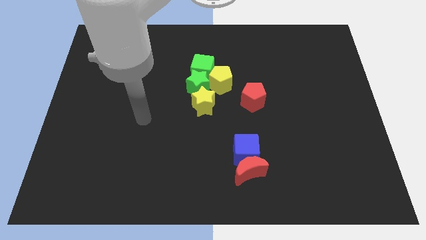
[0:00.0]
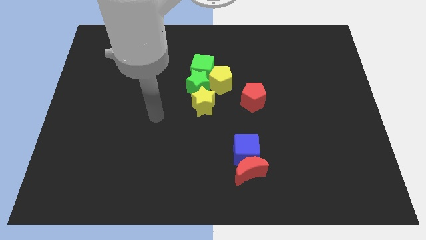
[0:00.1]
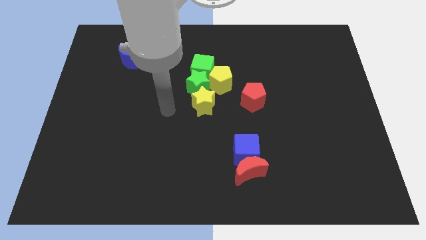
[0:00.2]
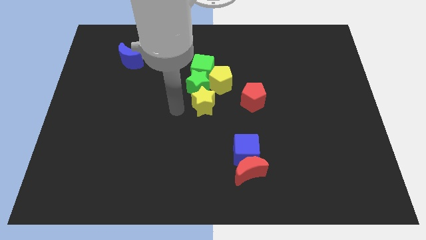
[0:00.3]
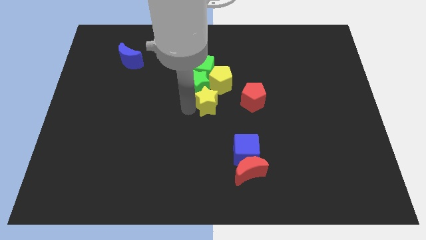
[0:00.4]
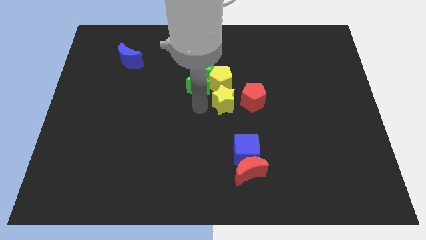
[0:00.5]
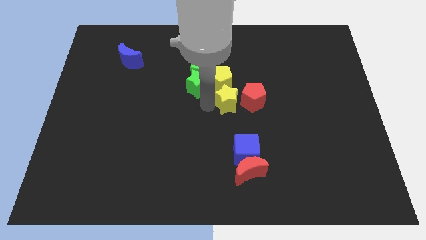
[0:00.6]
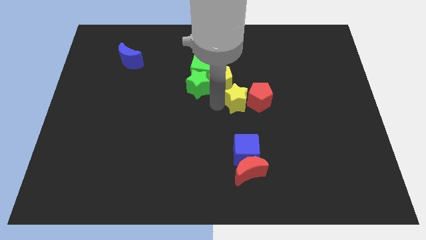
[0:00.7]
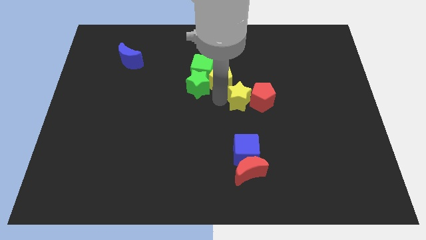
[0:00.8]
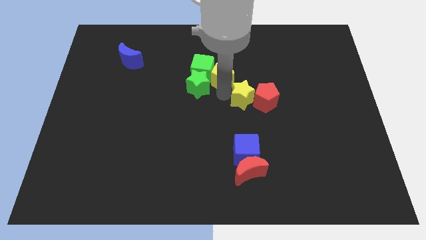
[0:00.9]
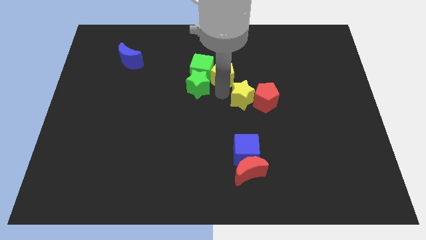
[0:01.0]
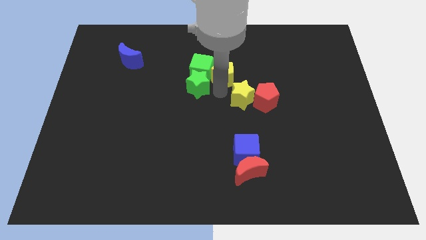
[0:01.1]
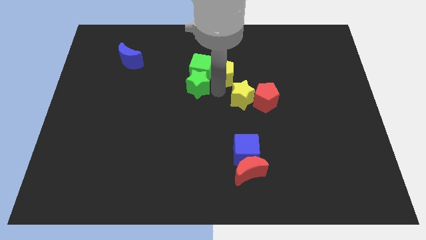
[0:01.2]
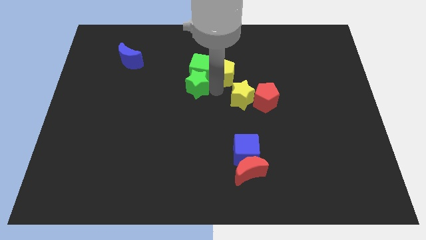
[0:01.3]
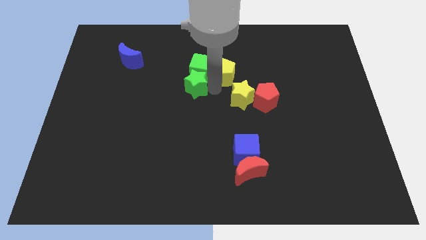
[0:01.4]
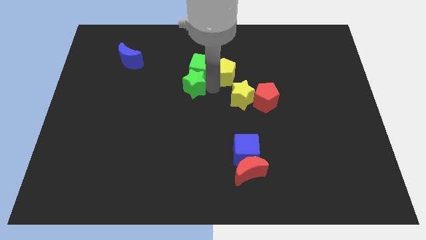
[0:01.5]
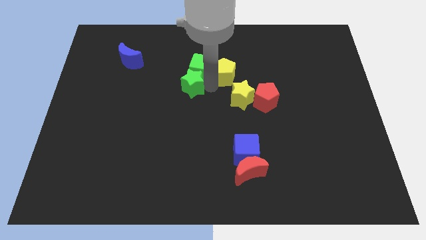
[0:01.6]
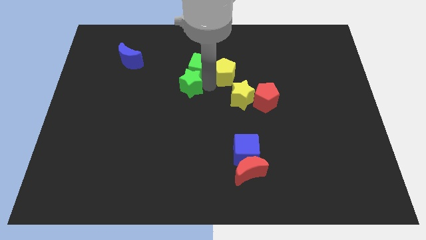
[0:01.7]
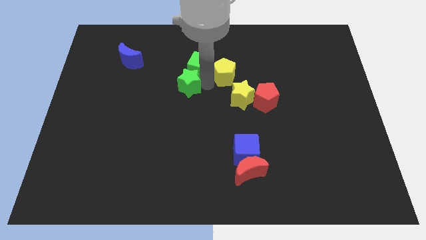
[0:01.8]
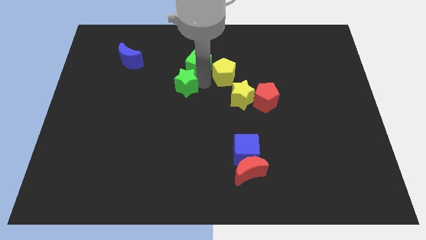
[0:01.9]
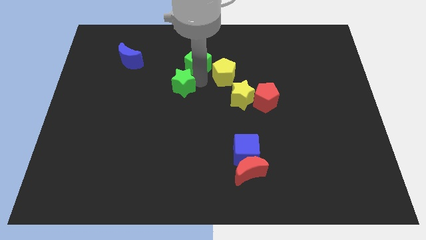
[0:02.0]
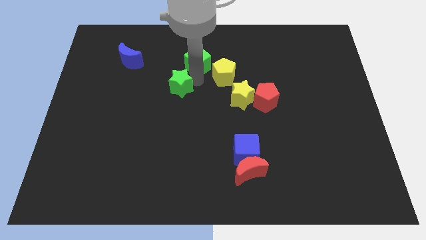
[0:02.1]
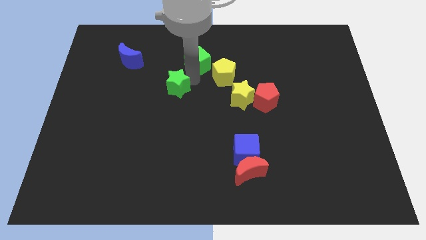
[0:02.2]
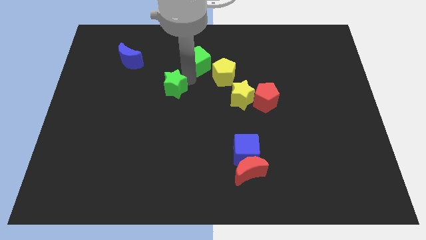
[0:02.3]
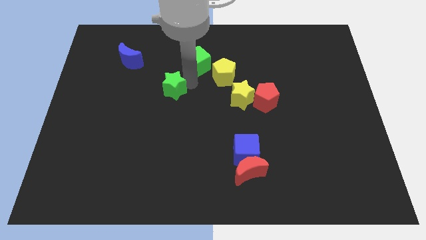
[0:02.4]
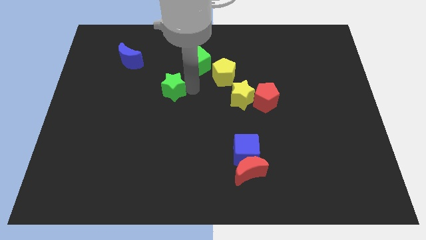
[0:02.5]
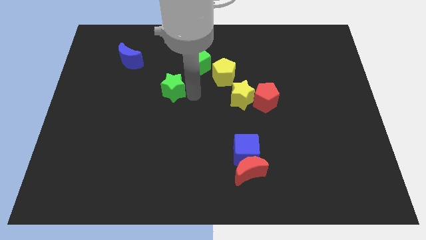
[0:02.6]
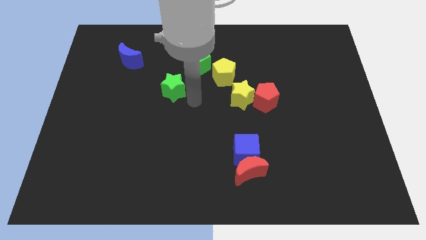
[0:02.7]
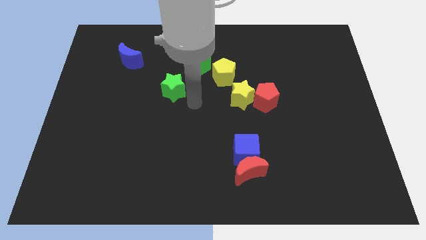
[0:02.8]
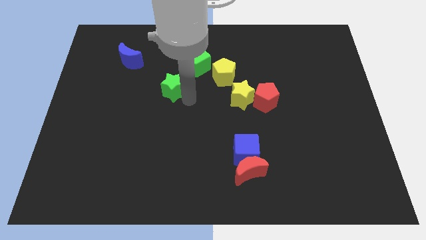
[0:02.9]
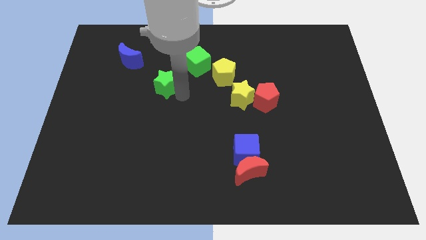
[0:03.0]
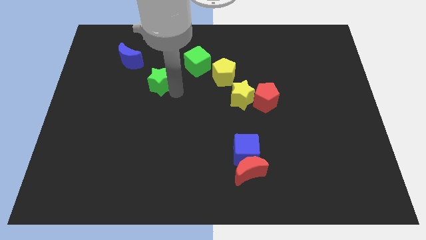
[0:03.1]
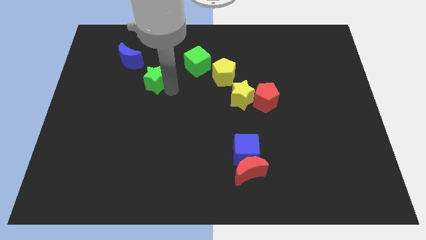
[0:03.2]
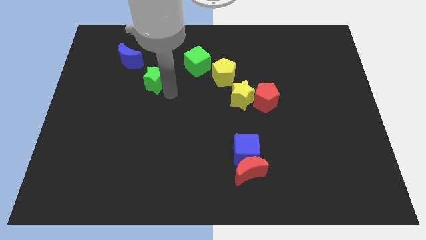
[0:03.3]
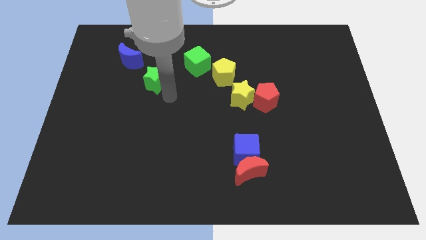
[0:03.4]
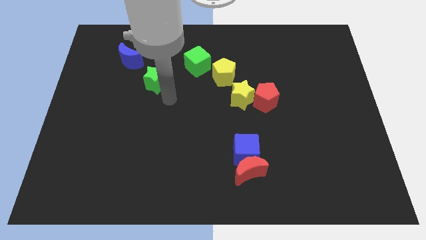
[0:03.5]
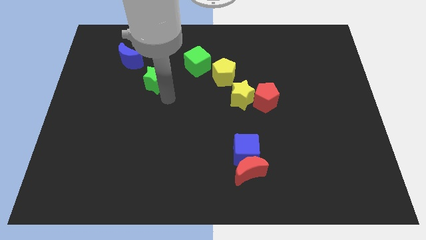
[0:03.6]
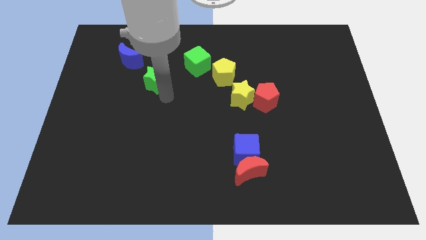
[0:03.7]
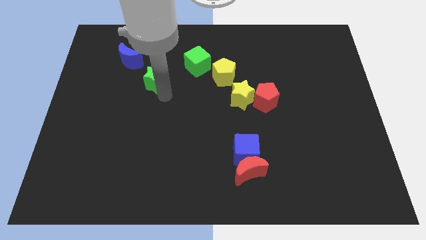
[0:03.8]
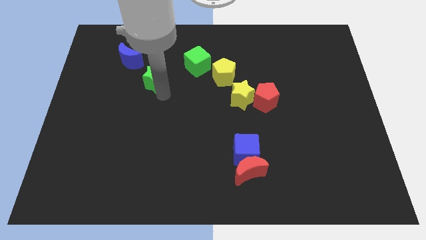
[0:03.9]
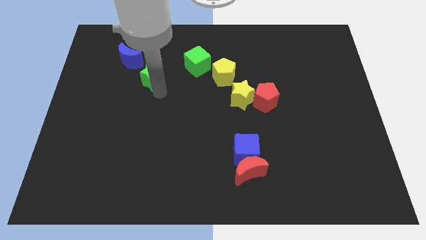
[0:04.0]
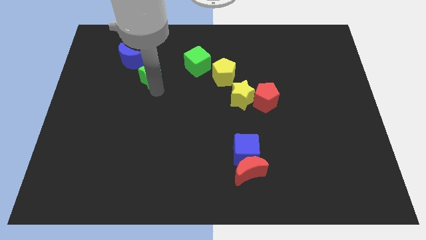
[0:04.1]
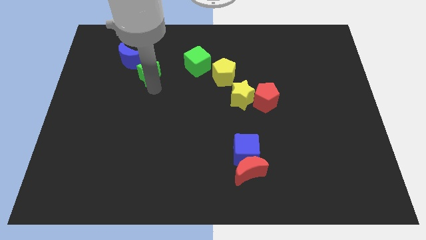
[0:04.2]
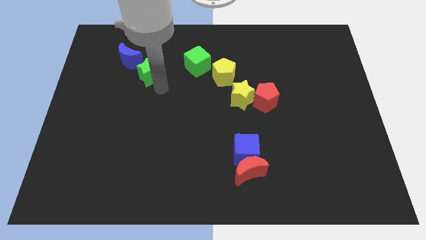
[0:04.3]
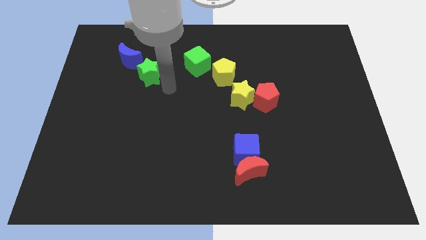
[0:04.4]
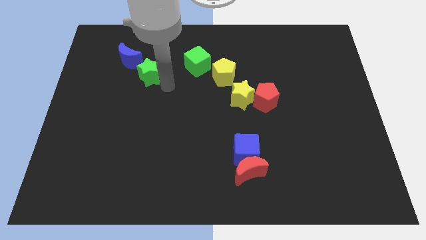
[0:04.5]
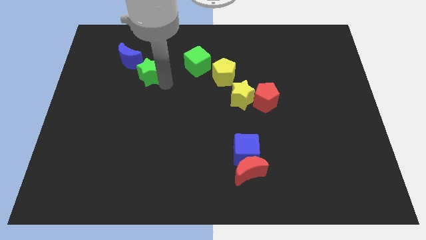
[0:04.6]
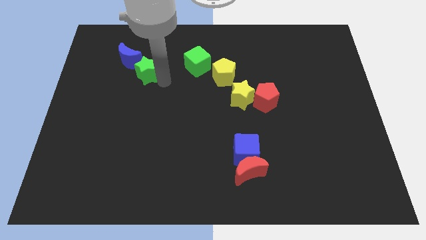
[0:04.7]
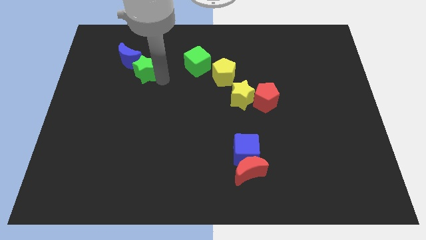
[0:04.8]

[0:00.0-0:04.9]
push the green star next to the blue moon

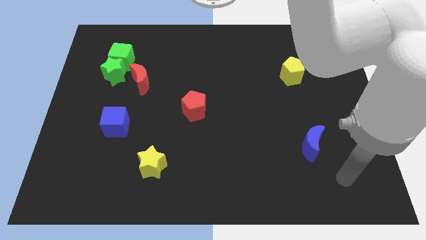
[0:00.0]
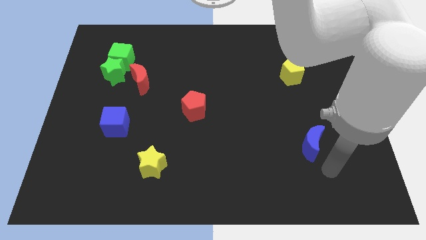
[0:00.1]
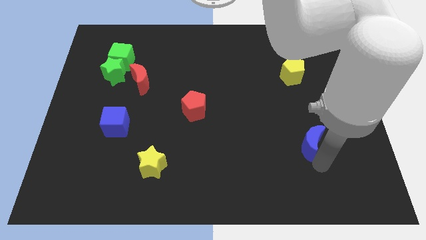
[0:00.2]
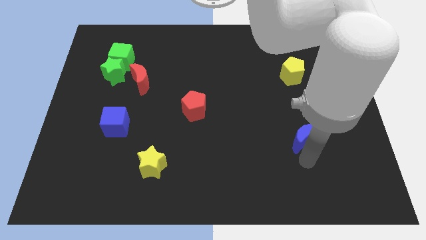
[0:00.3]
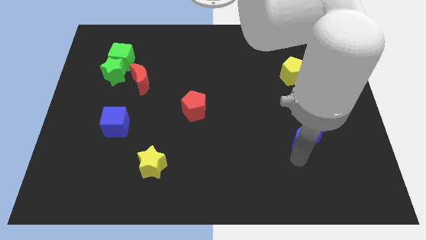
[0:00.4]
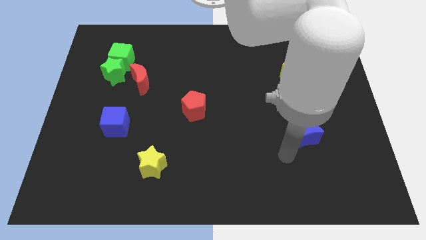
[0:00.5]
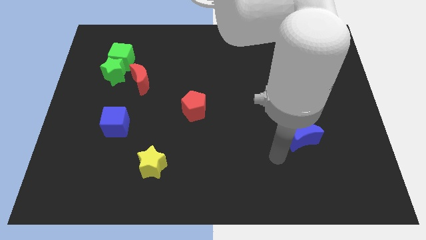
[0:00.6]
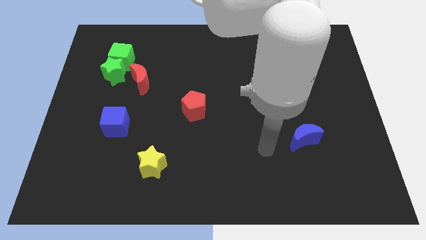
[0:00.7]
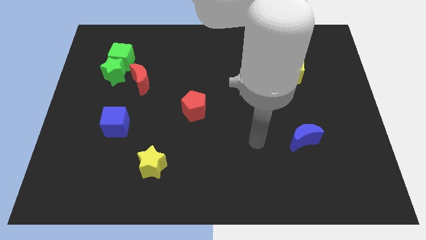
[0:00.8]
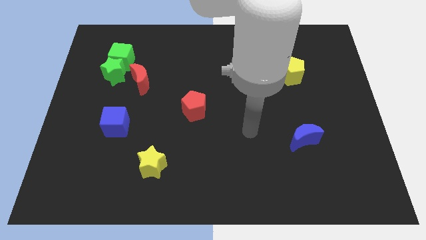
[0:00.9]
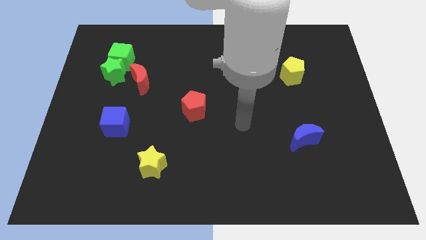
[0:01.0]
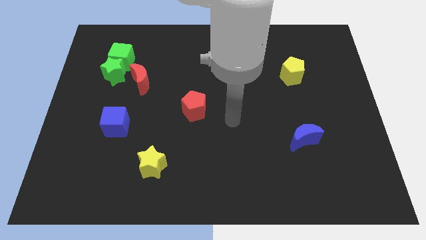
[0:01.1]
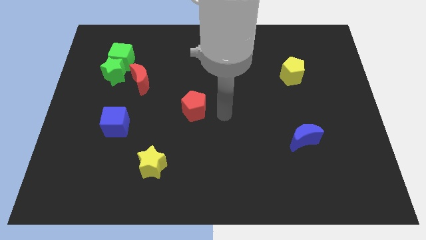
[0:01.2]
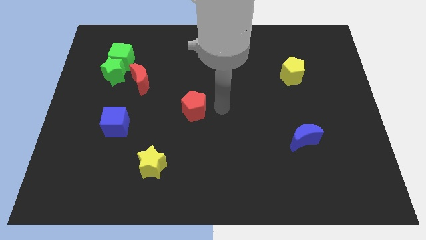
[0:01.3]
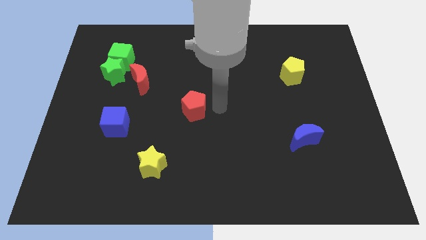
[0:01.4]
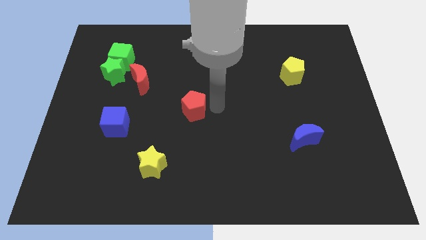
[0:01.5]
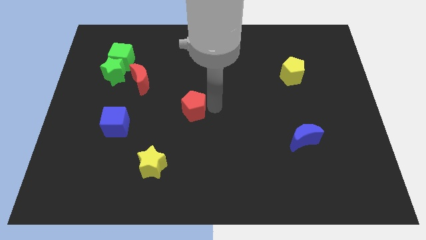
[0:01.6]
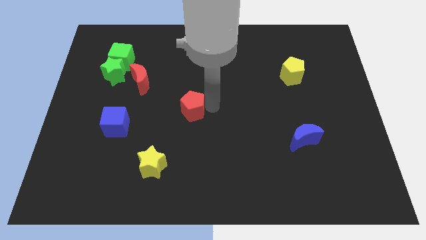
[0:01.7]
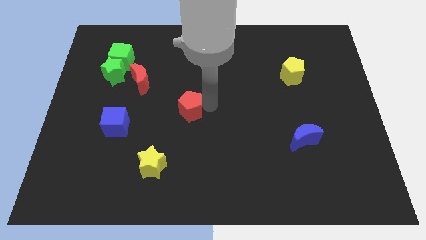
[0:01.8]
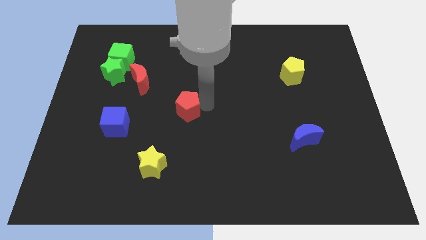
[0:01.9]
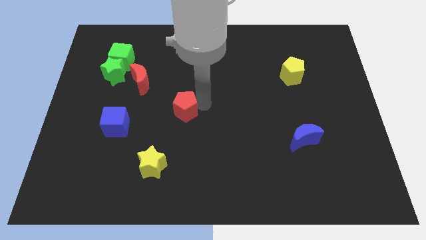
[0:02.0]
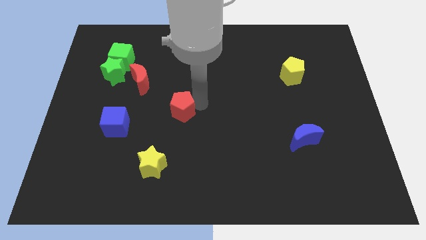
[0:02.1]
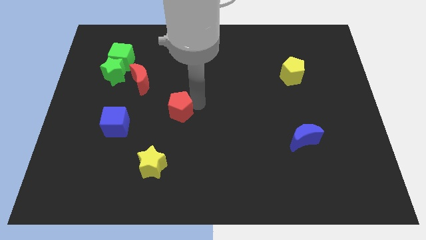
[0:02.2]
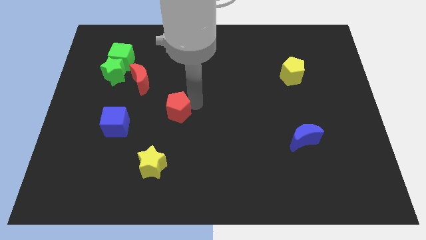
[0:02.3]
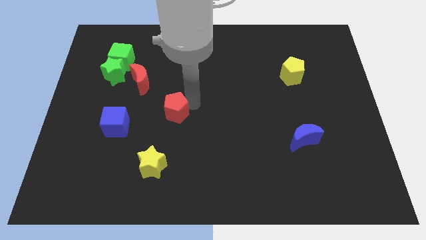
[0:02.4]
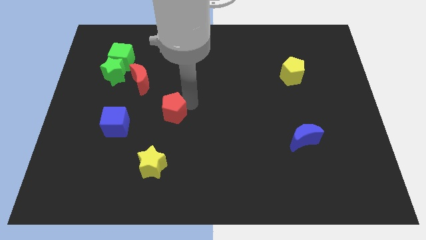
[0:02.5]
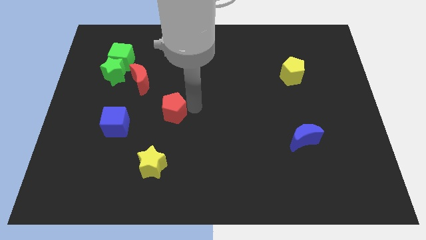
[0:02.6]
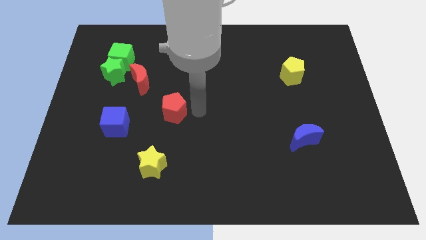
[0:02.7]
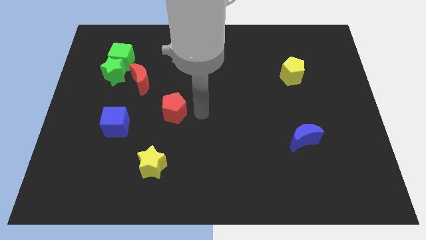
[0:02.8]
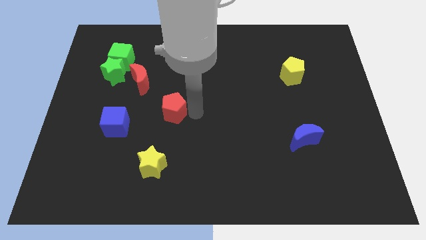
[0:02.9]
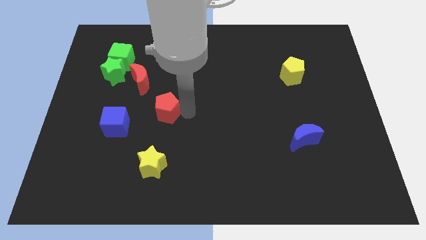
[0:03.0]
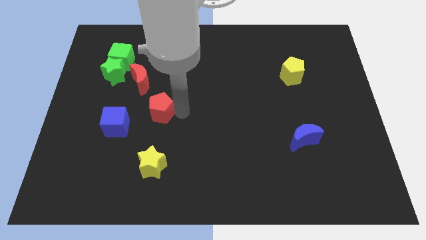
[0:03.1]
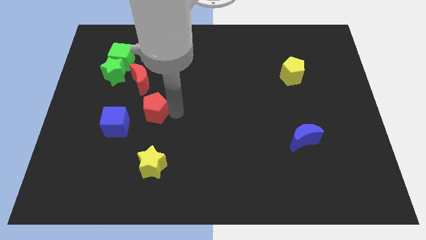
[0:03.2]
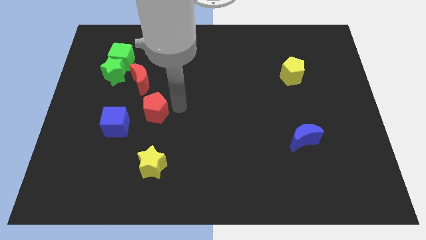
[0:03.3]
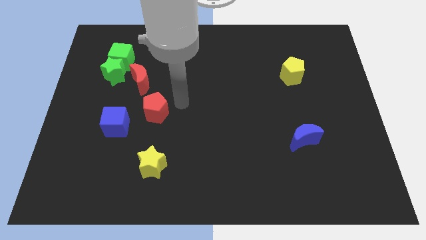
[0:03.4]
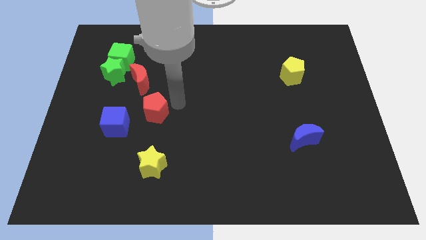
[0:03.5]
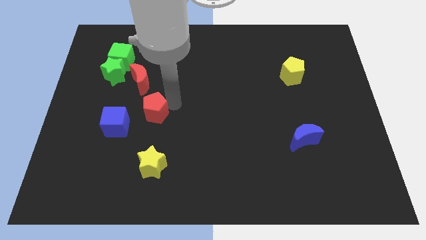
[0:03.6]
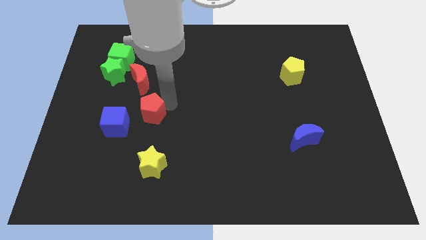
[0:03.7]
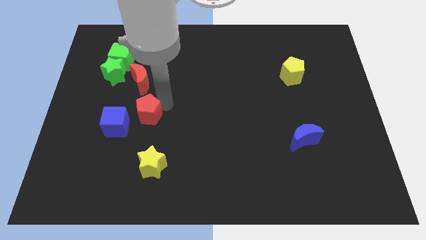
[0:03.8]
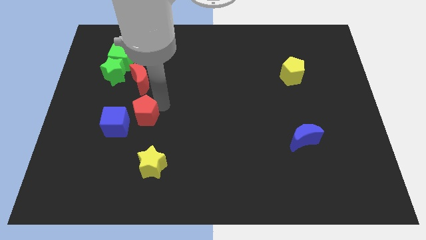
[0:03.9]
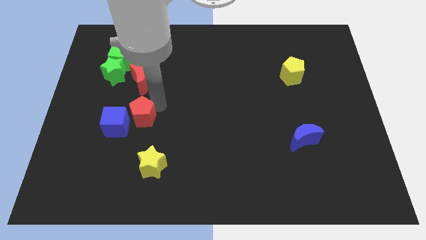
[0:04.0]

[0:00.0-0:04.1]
push the red pentagon close to the blue cube
